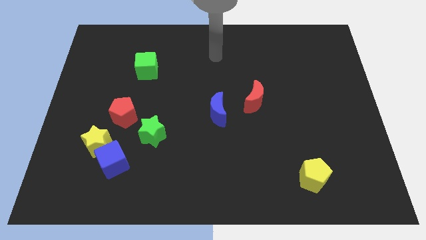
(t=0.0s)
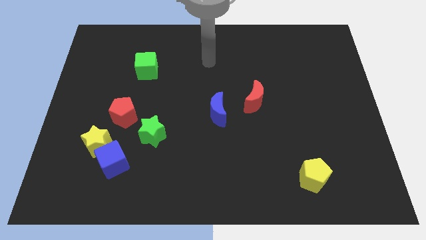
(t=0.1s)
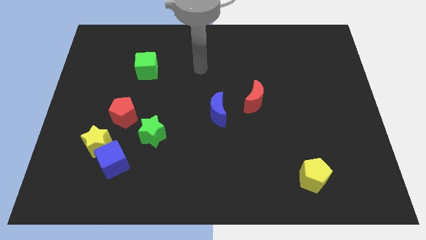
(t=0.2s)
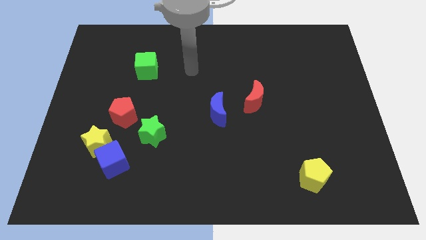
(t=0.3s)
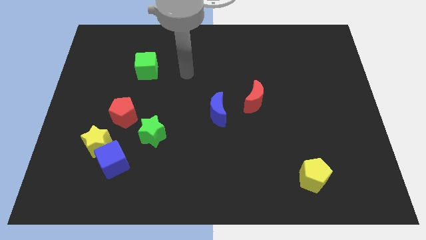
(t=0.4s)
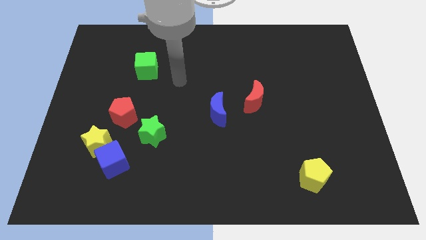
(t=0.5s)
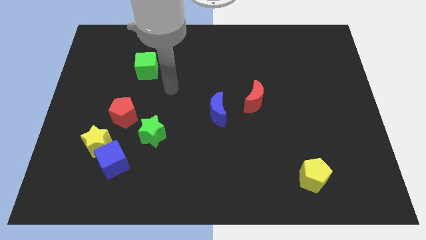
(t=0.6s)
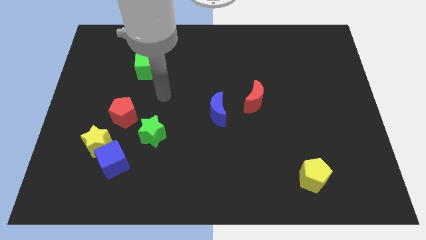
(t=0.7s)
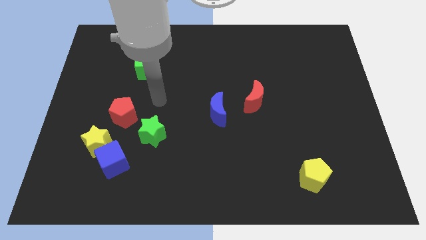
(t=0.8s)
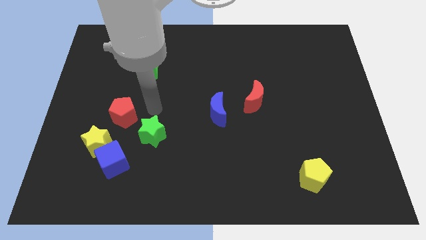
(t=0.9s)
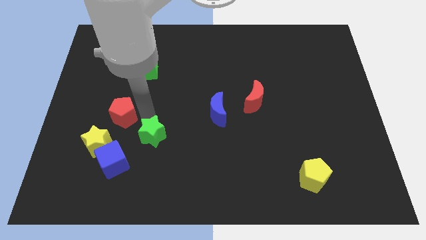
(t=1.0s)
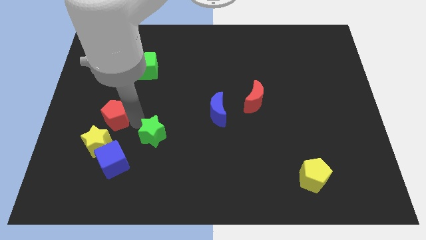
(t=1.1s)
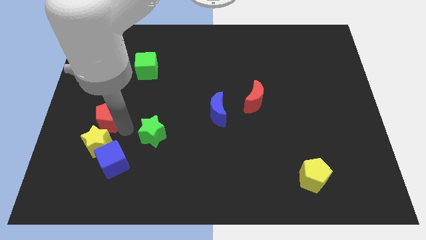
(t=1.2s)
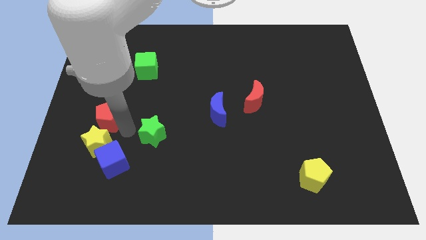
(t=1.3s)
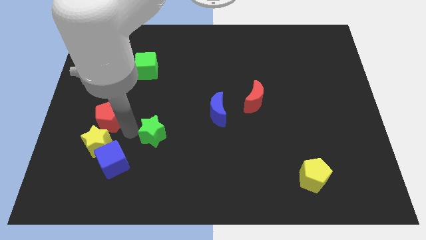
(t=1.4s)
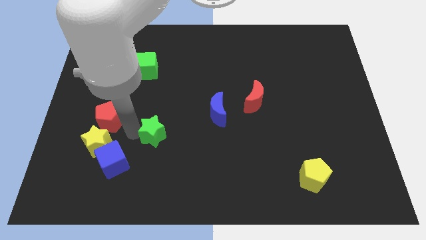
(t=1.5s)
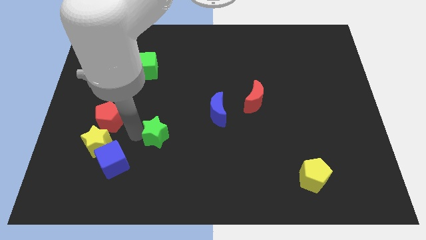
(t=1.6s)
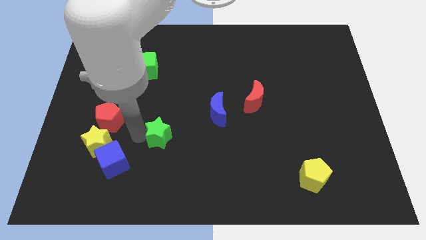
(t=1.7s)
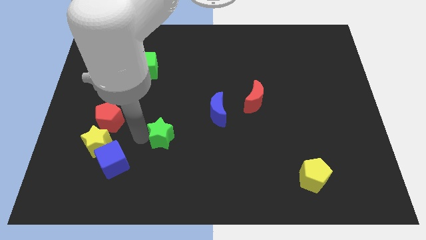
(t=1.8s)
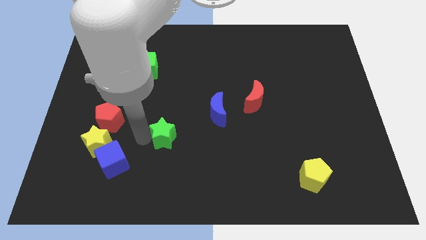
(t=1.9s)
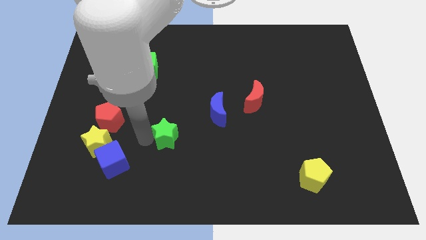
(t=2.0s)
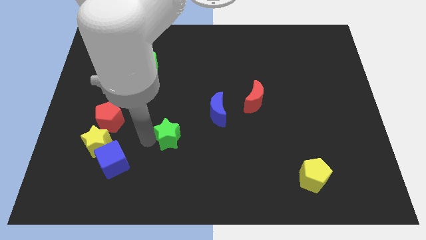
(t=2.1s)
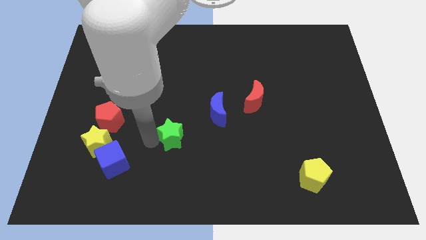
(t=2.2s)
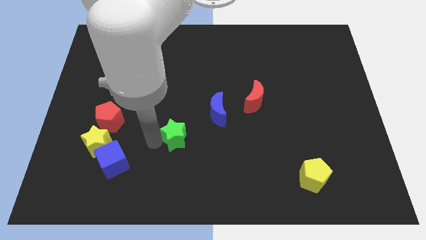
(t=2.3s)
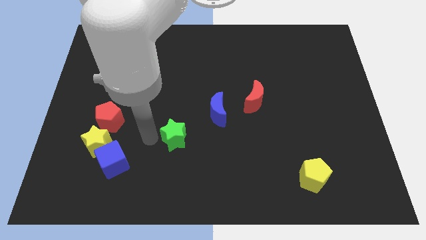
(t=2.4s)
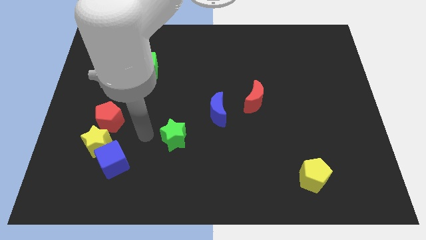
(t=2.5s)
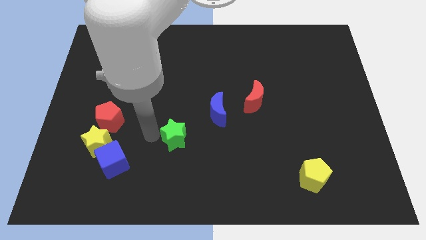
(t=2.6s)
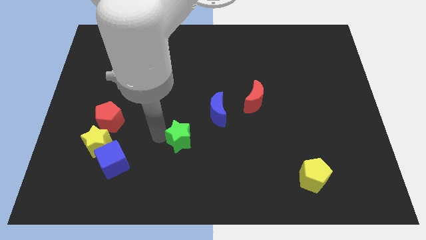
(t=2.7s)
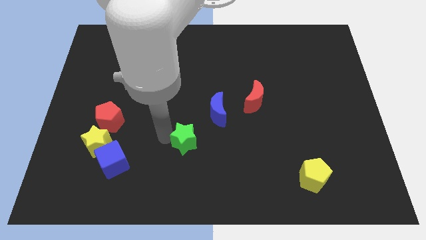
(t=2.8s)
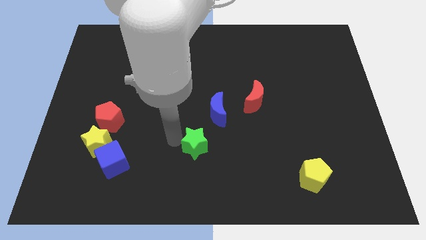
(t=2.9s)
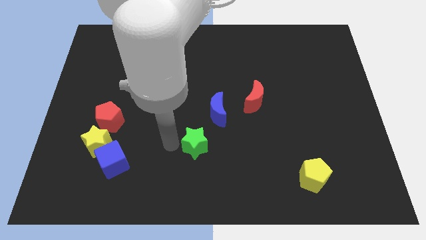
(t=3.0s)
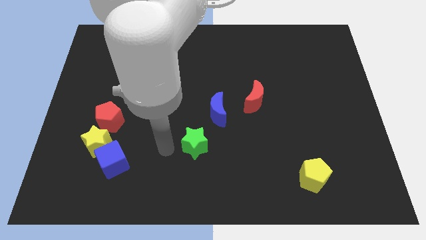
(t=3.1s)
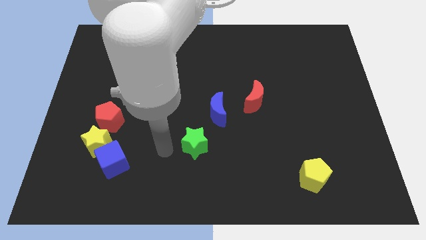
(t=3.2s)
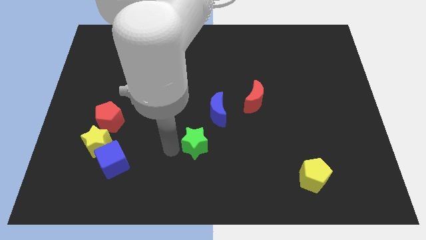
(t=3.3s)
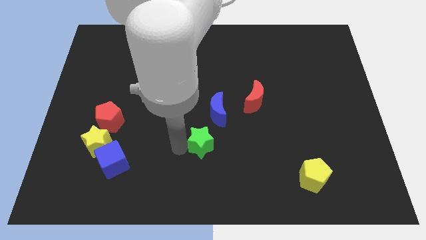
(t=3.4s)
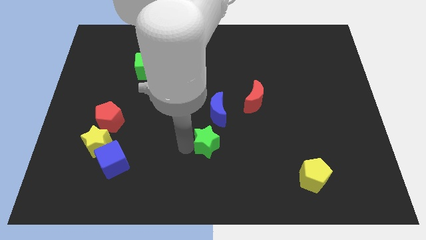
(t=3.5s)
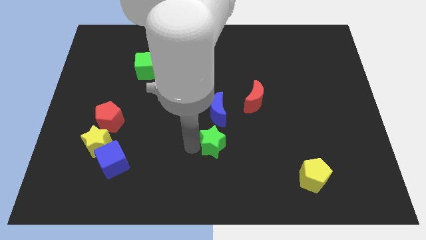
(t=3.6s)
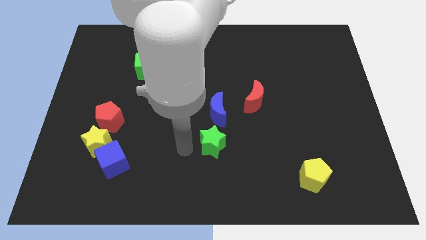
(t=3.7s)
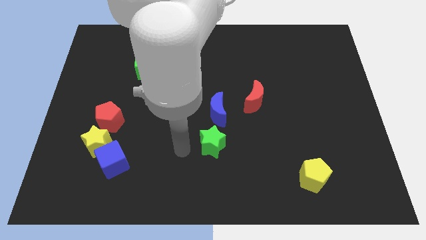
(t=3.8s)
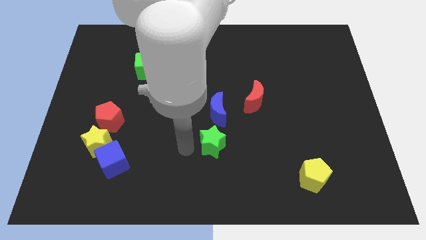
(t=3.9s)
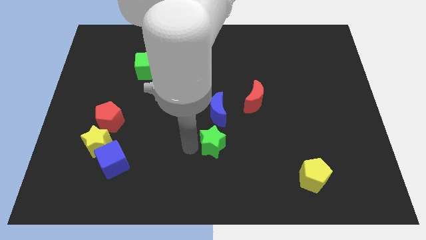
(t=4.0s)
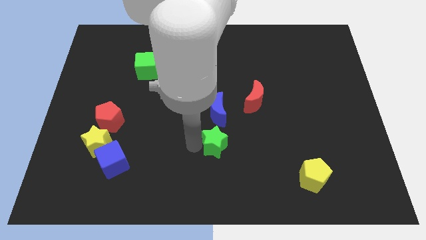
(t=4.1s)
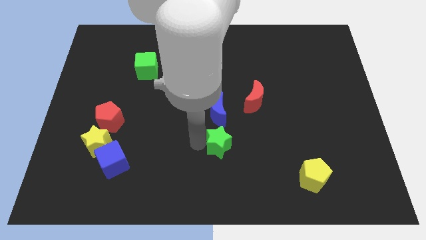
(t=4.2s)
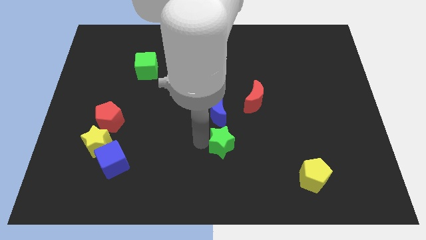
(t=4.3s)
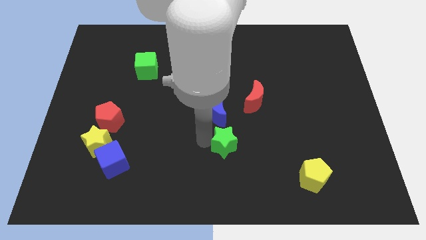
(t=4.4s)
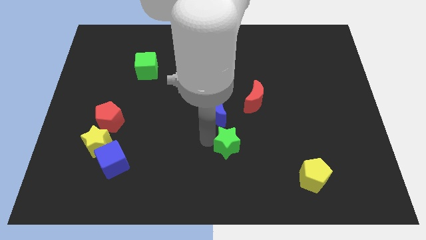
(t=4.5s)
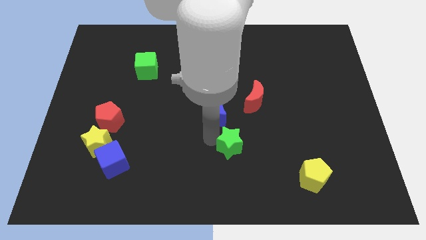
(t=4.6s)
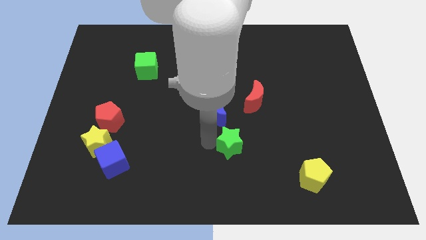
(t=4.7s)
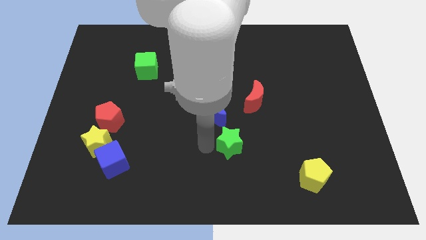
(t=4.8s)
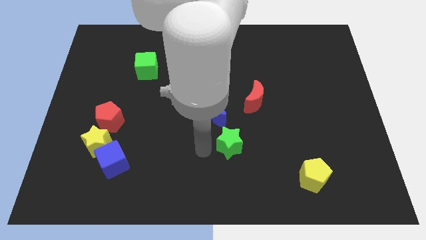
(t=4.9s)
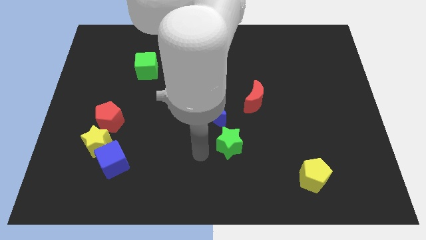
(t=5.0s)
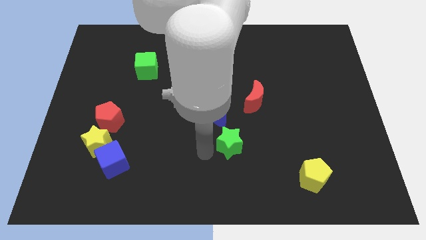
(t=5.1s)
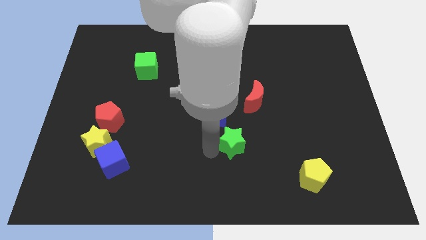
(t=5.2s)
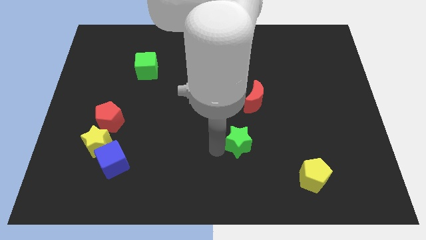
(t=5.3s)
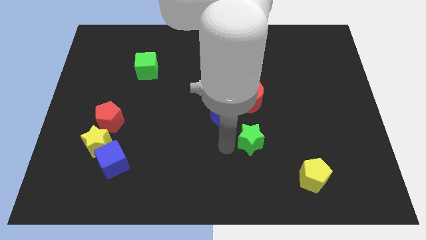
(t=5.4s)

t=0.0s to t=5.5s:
move the green star right

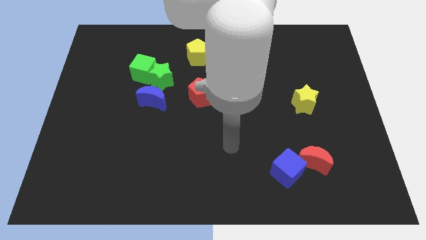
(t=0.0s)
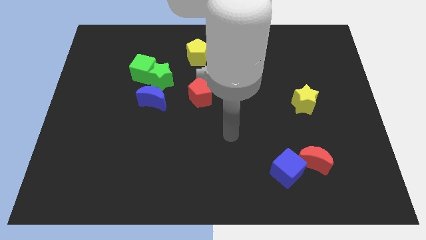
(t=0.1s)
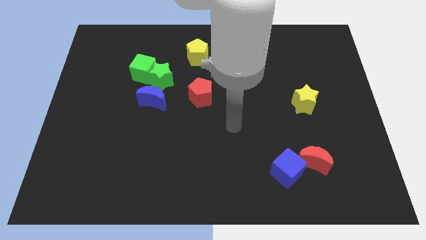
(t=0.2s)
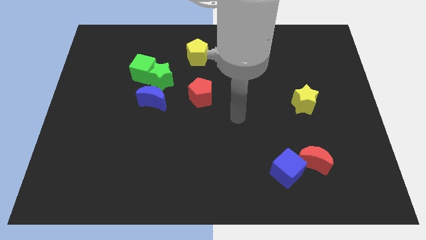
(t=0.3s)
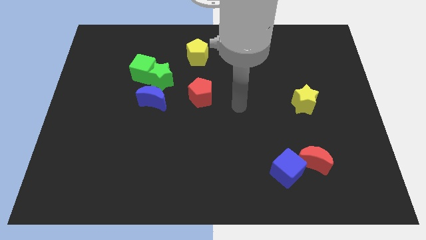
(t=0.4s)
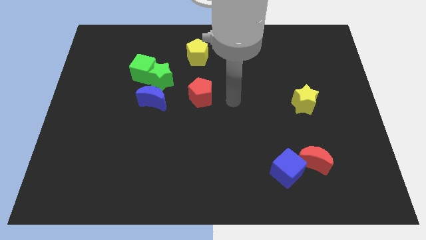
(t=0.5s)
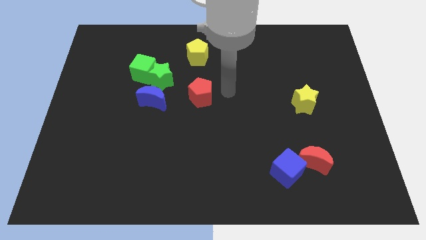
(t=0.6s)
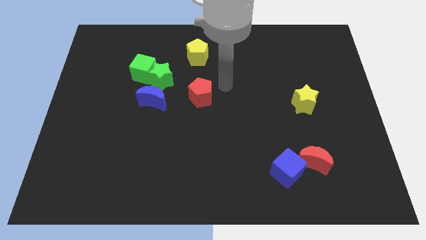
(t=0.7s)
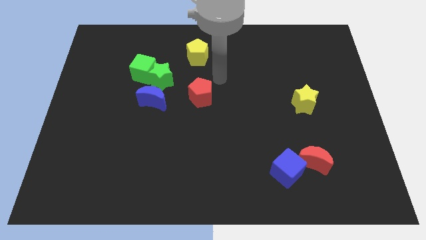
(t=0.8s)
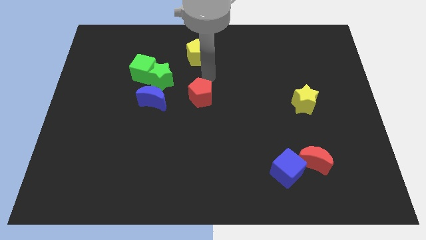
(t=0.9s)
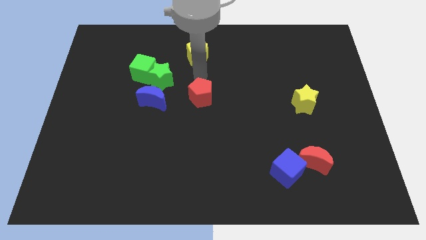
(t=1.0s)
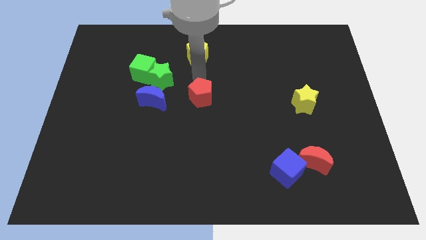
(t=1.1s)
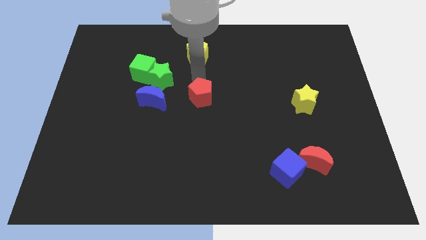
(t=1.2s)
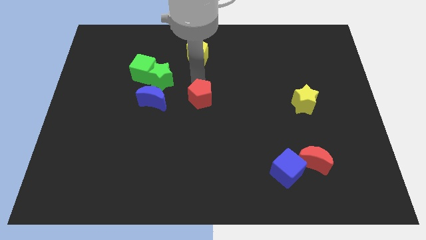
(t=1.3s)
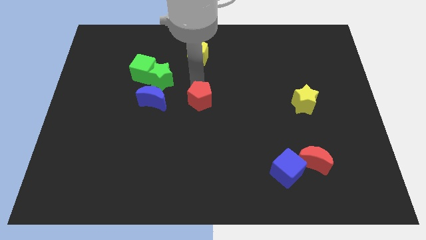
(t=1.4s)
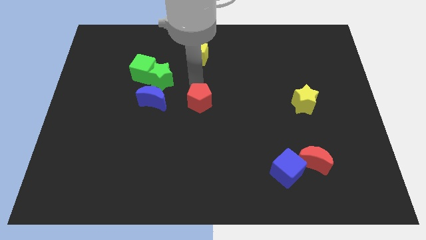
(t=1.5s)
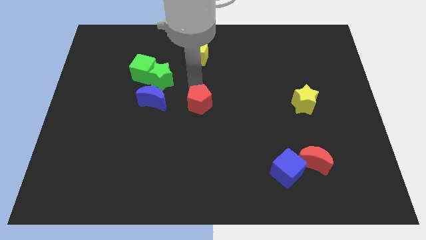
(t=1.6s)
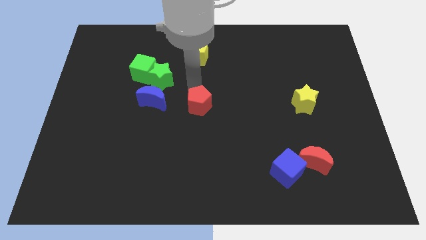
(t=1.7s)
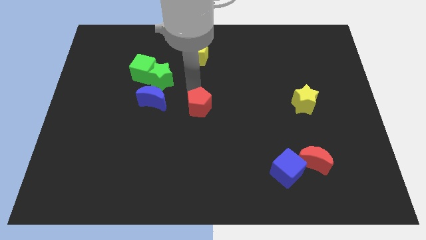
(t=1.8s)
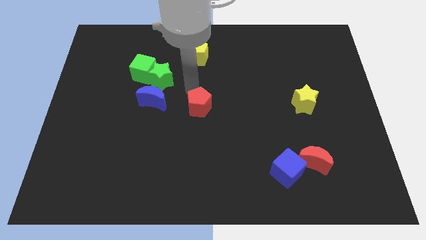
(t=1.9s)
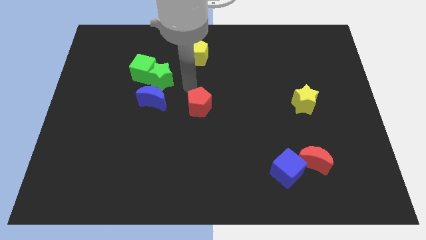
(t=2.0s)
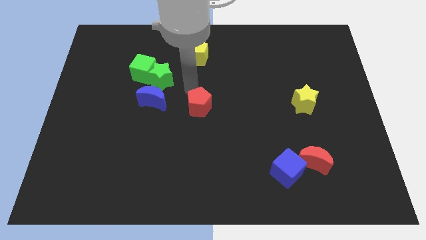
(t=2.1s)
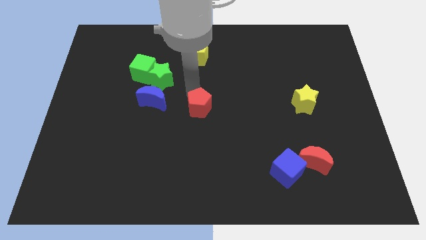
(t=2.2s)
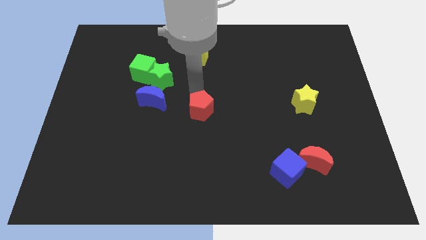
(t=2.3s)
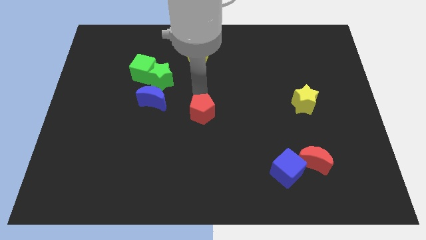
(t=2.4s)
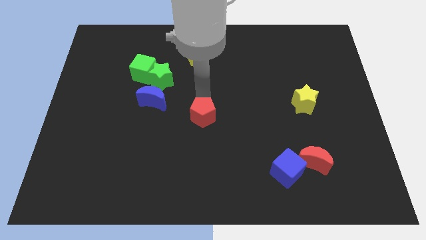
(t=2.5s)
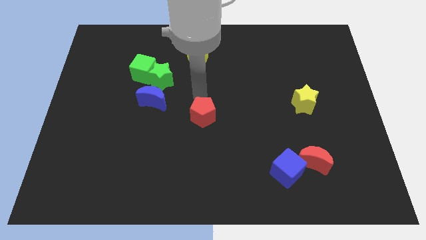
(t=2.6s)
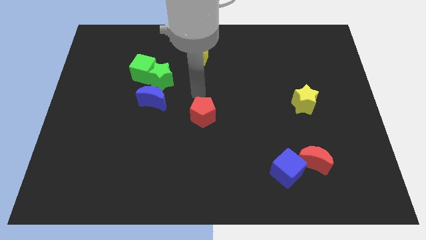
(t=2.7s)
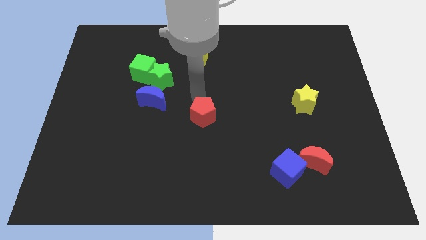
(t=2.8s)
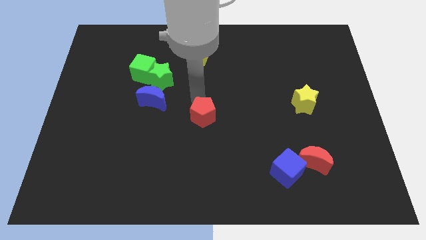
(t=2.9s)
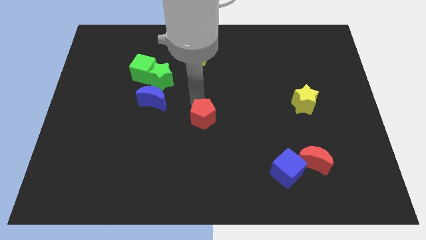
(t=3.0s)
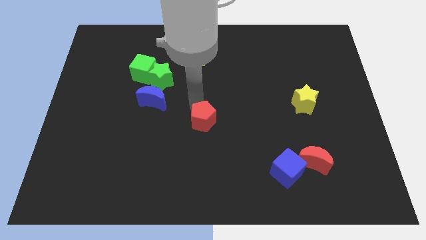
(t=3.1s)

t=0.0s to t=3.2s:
slightly slide the red pentagon down
